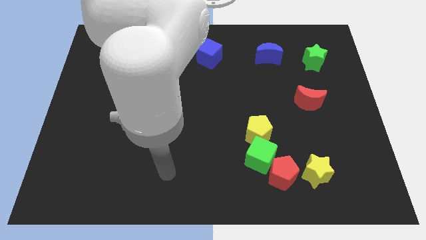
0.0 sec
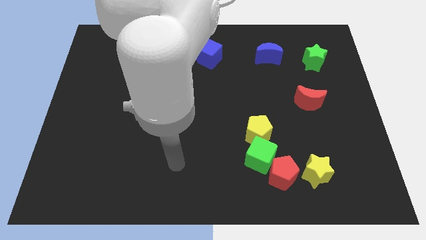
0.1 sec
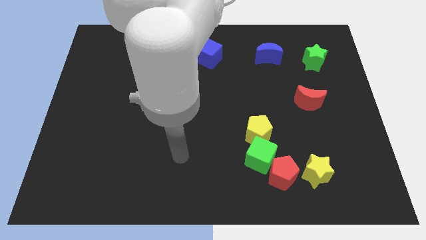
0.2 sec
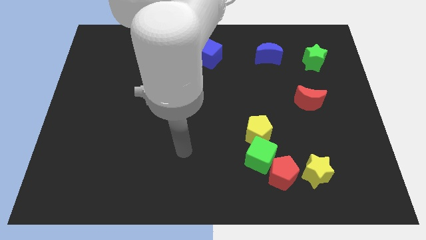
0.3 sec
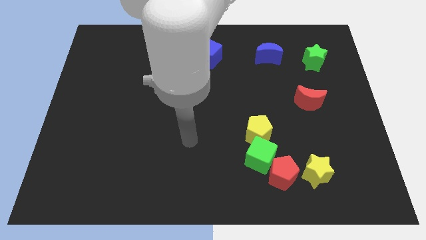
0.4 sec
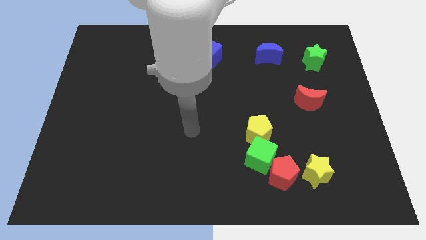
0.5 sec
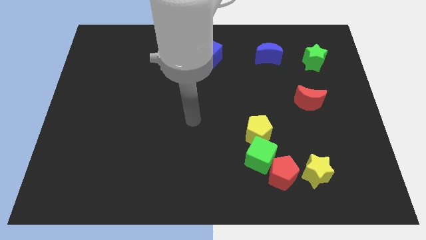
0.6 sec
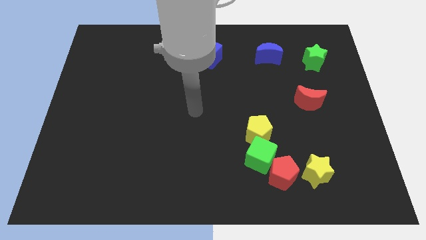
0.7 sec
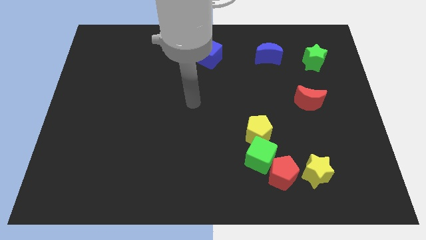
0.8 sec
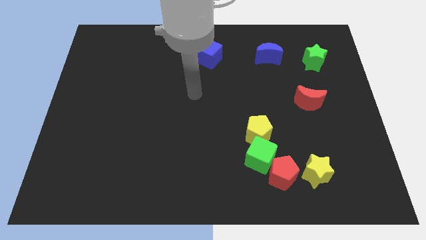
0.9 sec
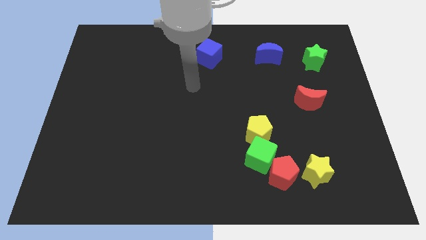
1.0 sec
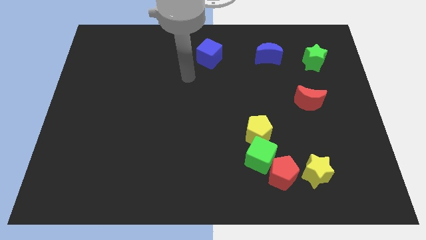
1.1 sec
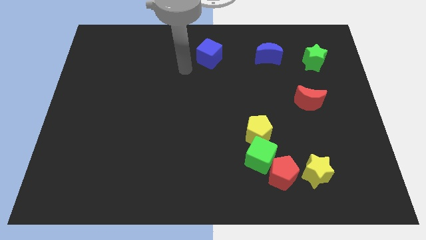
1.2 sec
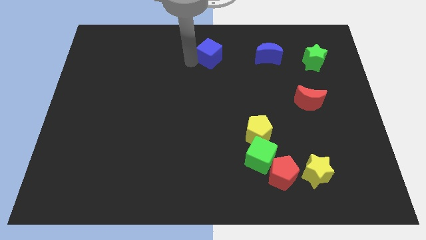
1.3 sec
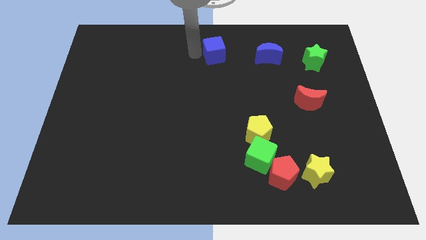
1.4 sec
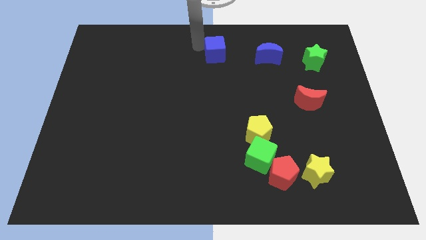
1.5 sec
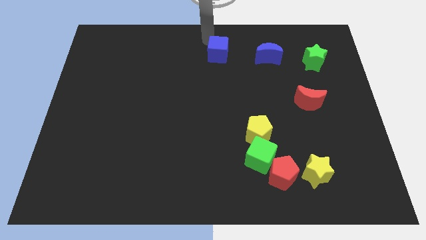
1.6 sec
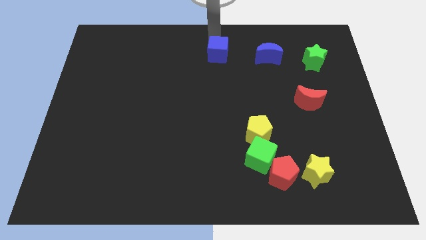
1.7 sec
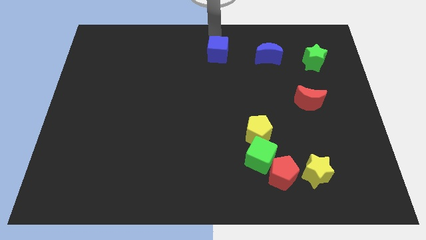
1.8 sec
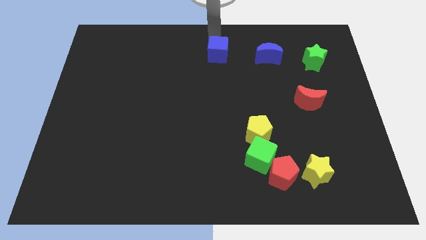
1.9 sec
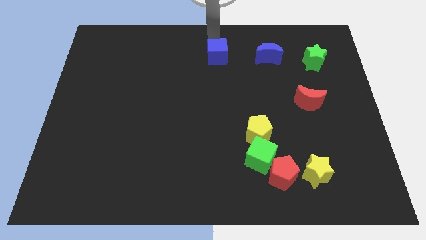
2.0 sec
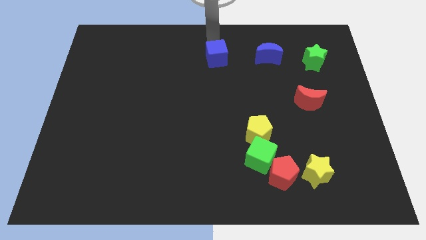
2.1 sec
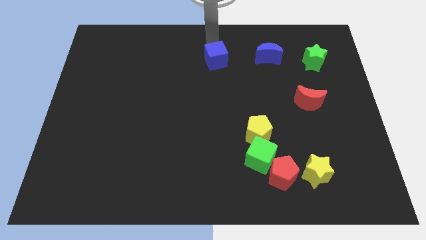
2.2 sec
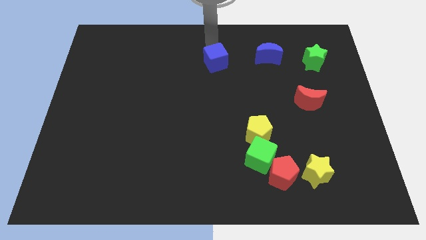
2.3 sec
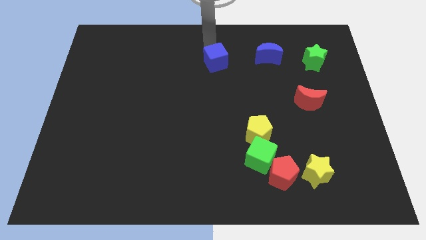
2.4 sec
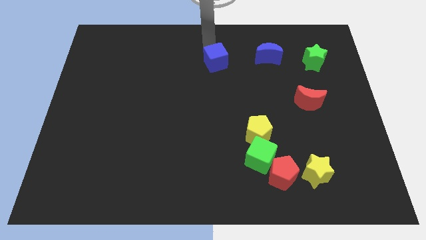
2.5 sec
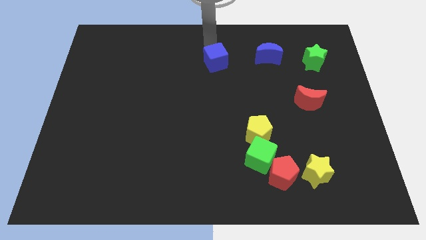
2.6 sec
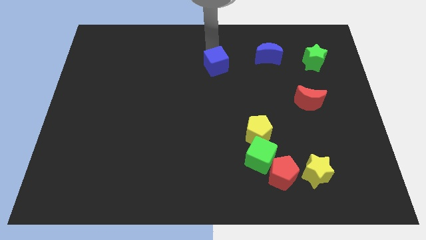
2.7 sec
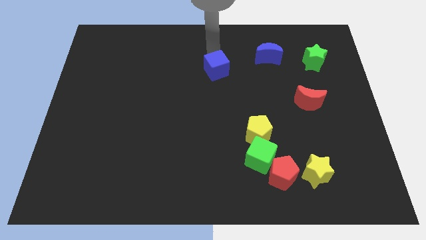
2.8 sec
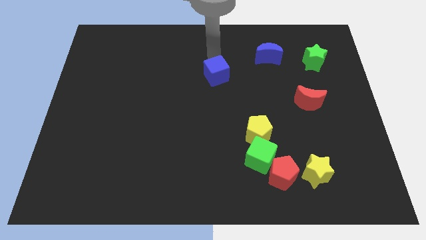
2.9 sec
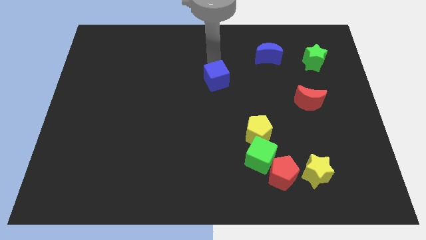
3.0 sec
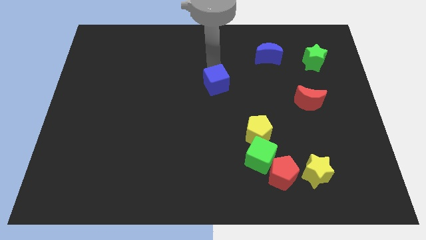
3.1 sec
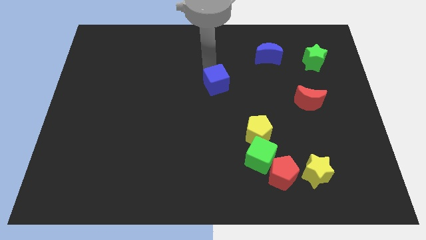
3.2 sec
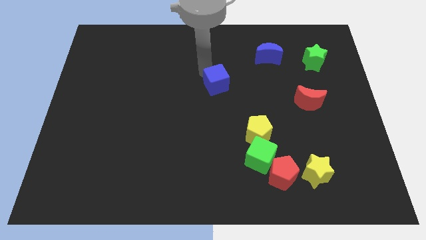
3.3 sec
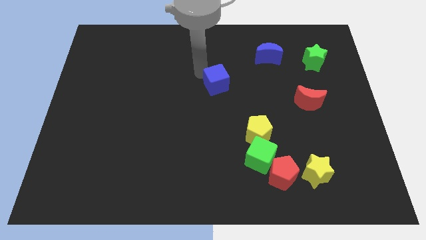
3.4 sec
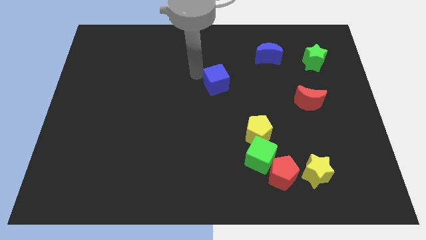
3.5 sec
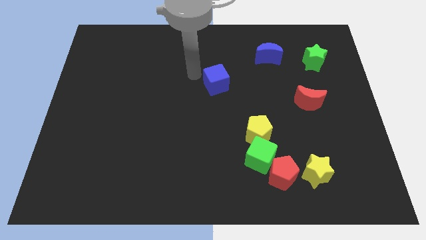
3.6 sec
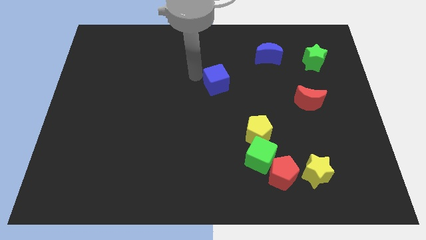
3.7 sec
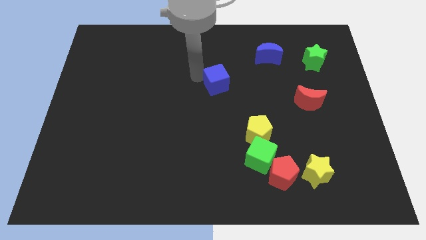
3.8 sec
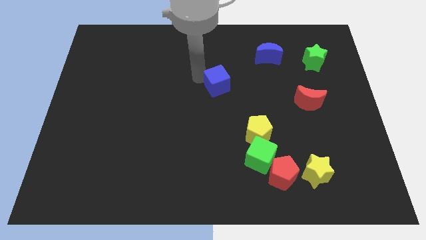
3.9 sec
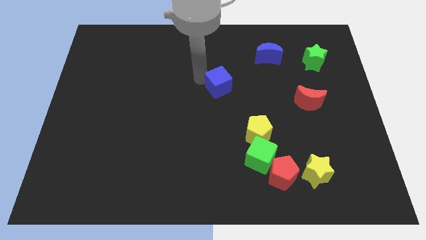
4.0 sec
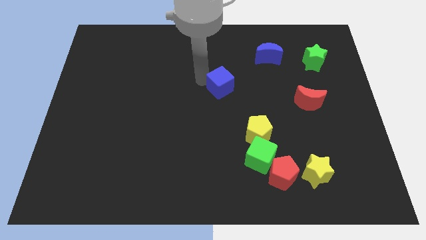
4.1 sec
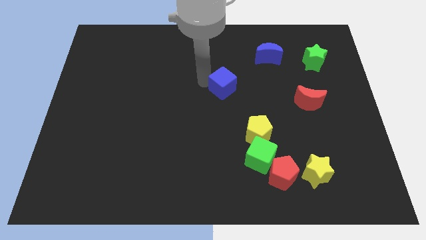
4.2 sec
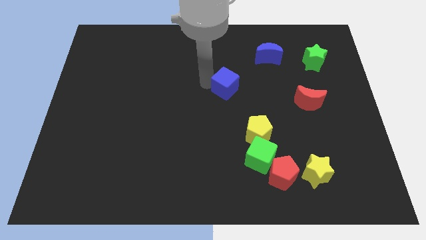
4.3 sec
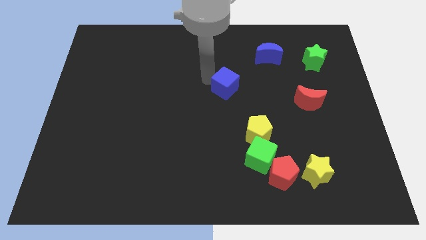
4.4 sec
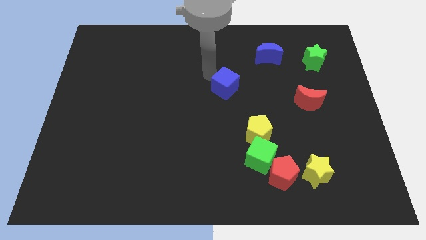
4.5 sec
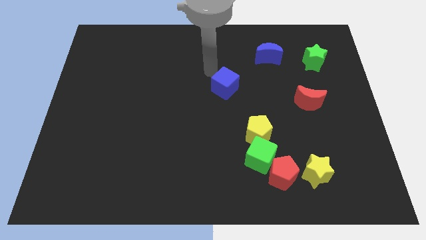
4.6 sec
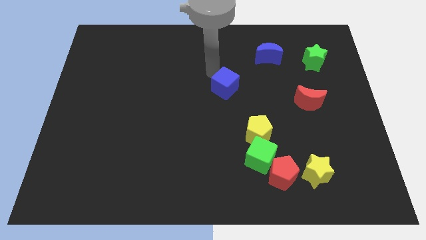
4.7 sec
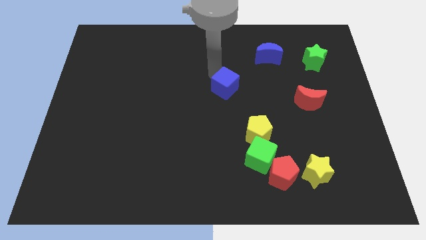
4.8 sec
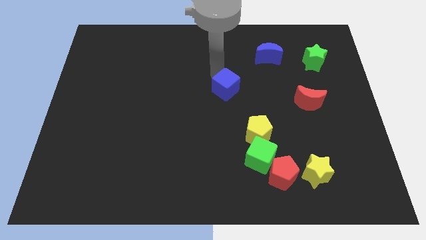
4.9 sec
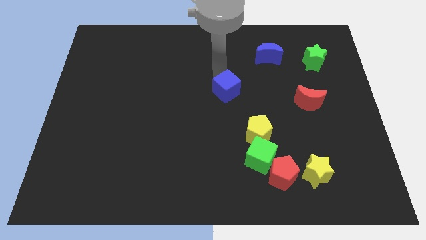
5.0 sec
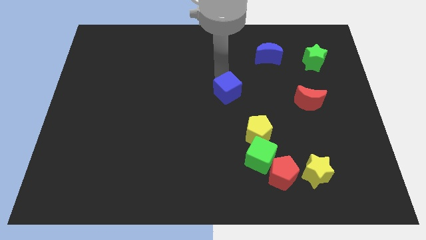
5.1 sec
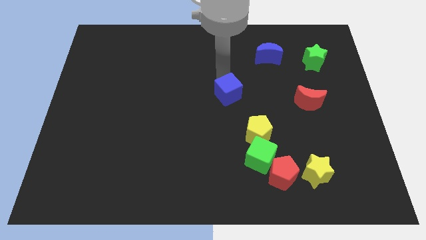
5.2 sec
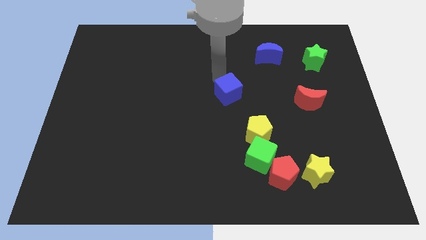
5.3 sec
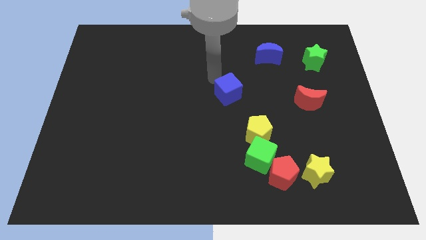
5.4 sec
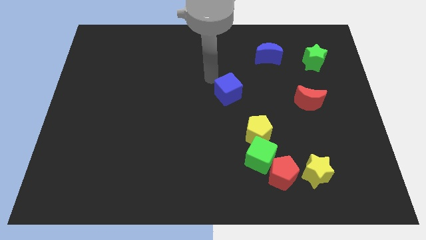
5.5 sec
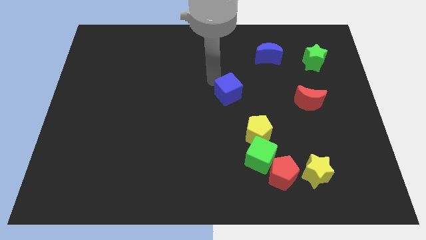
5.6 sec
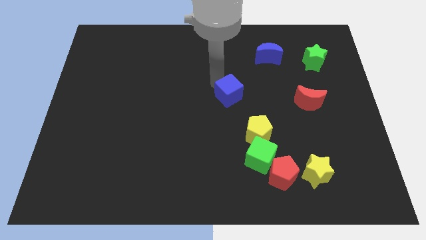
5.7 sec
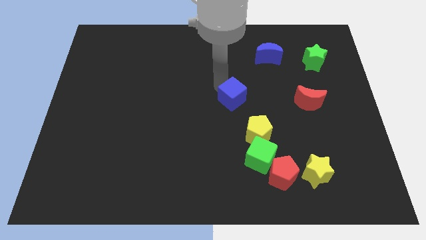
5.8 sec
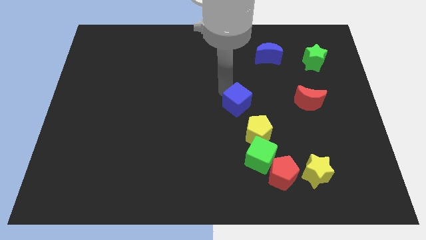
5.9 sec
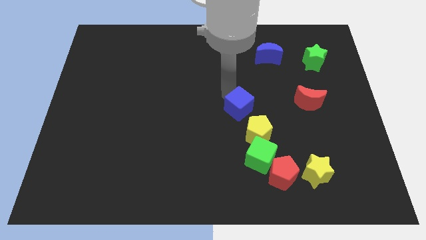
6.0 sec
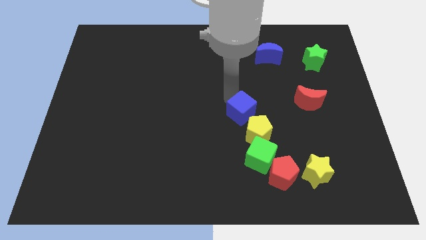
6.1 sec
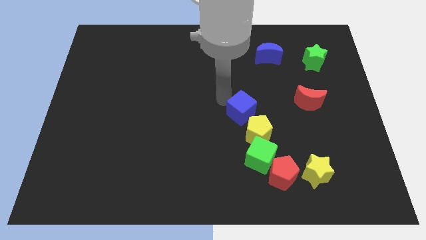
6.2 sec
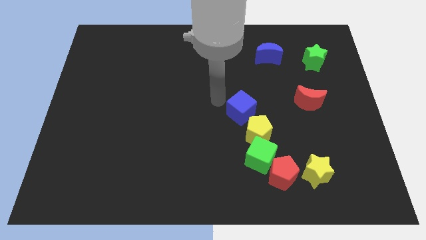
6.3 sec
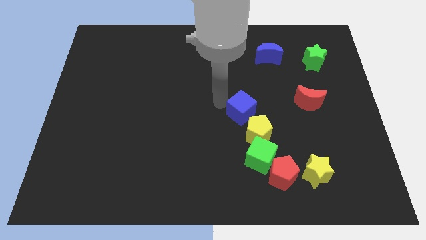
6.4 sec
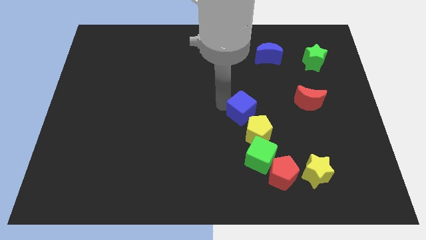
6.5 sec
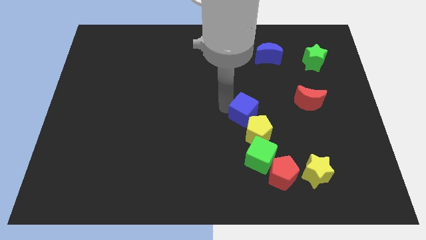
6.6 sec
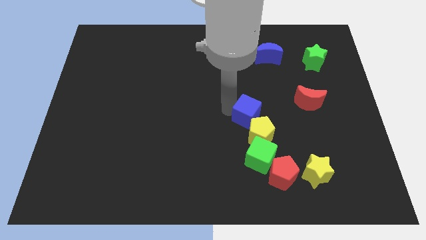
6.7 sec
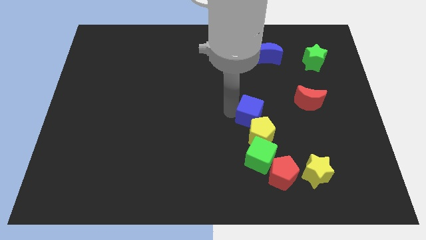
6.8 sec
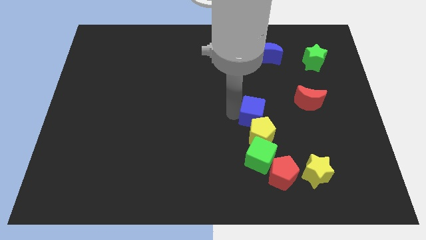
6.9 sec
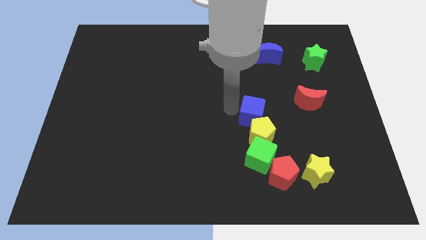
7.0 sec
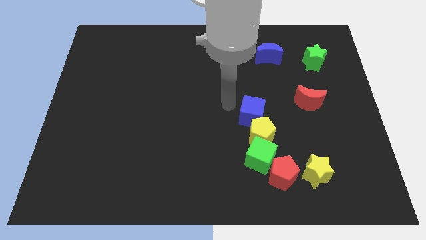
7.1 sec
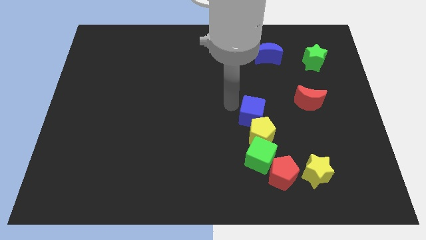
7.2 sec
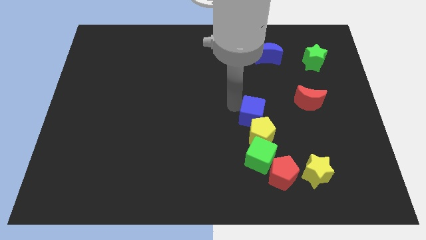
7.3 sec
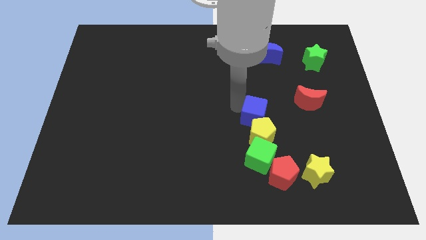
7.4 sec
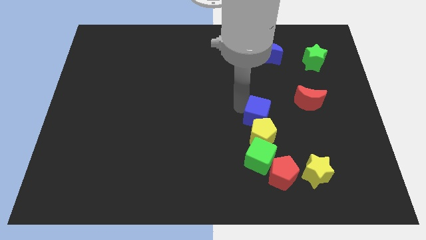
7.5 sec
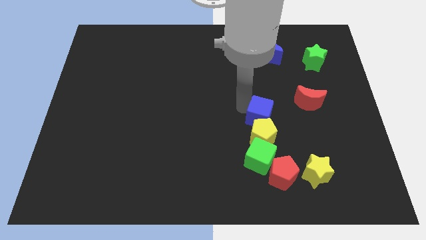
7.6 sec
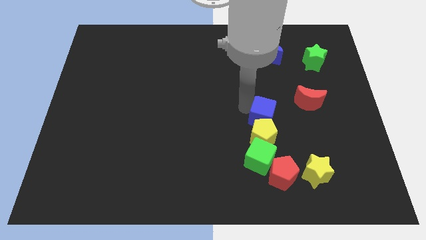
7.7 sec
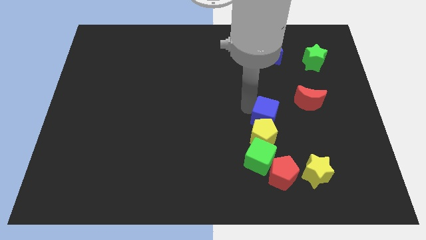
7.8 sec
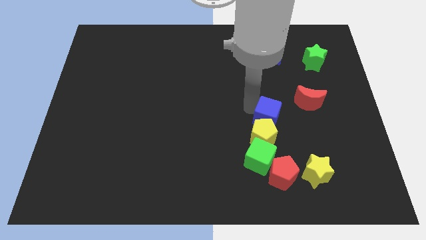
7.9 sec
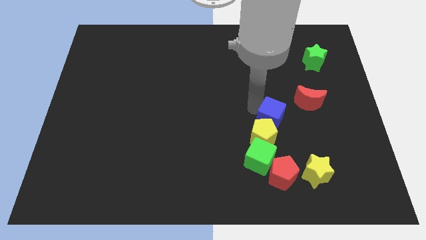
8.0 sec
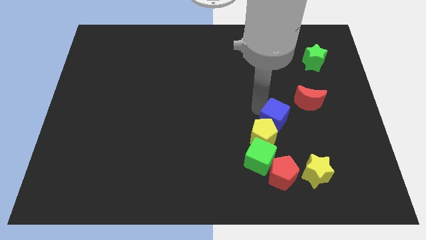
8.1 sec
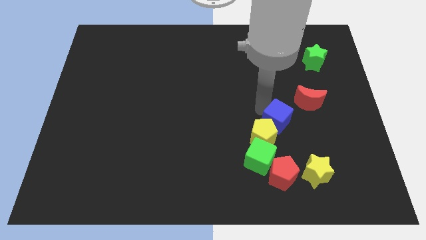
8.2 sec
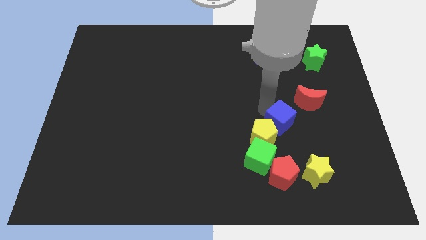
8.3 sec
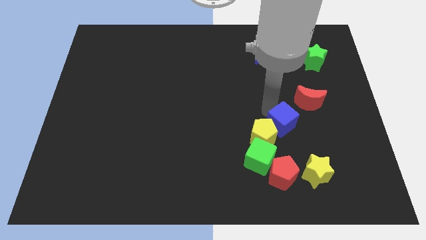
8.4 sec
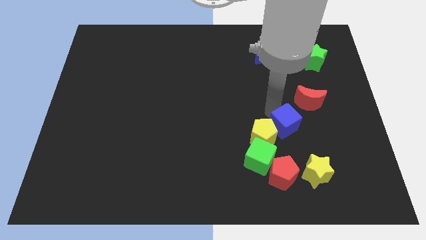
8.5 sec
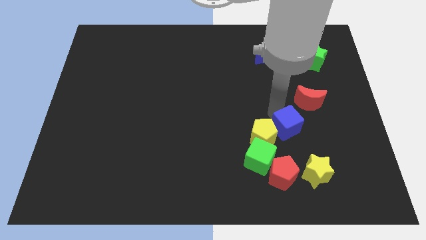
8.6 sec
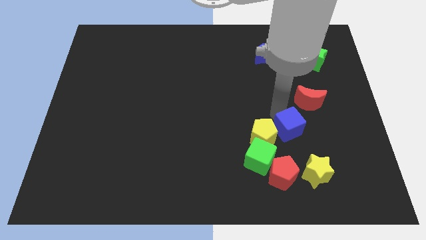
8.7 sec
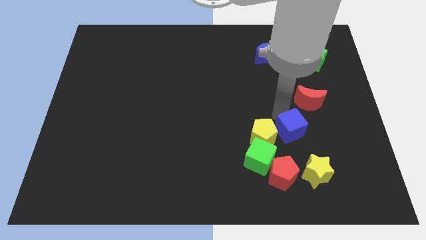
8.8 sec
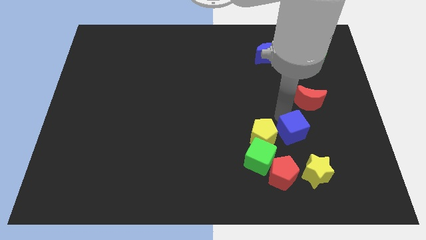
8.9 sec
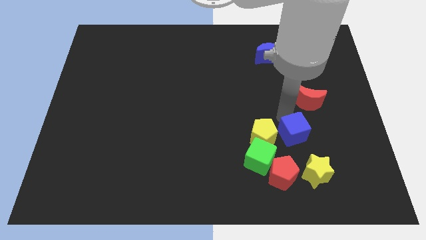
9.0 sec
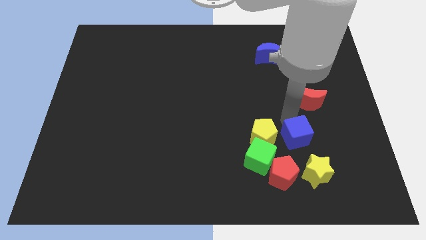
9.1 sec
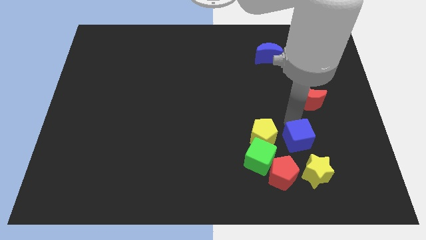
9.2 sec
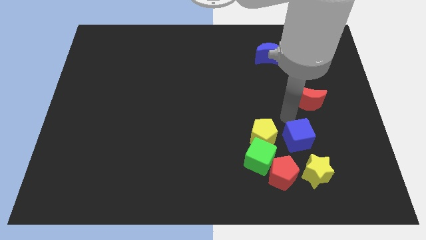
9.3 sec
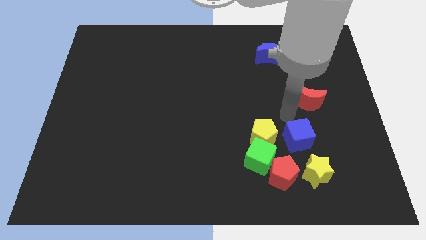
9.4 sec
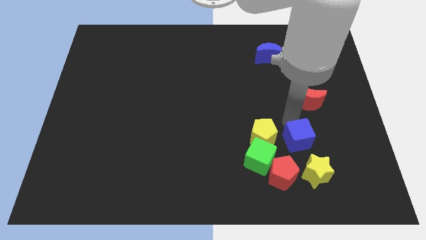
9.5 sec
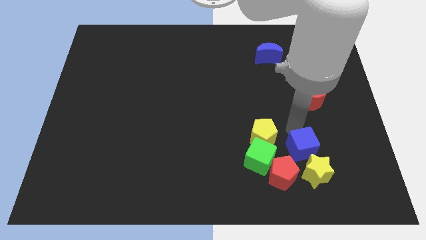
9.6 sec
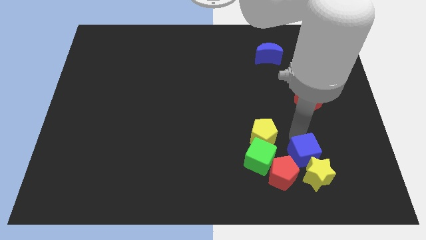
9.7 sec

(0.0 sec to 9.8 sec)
slide the blue cube towards the yellow star
